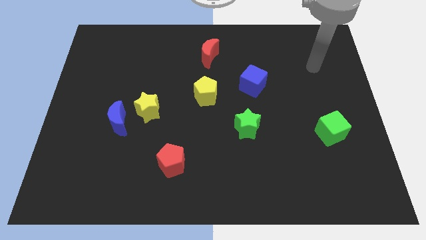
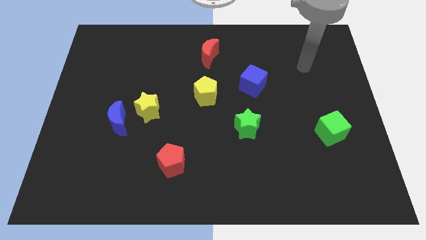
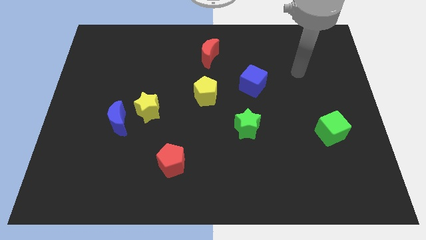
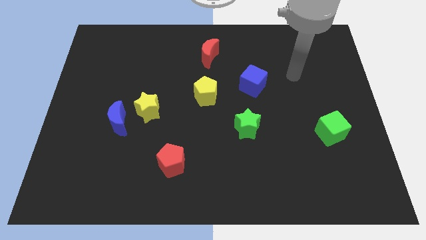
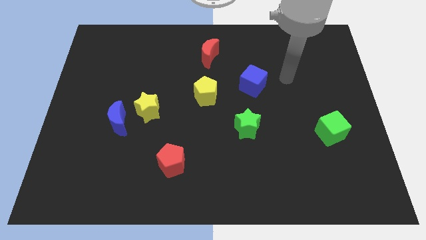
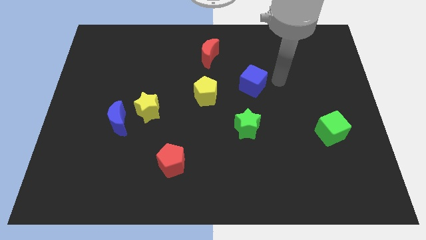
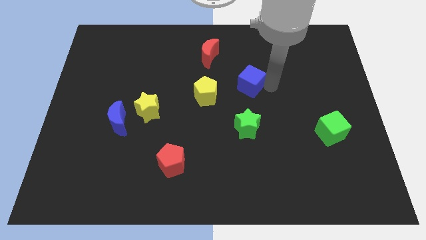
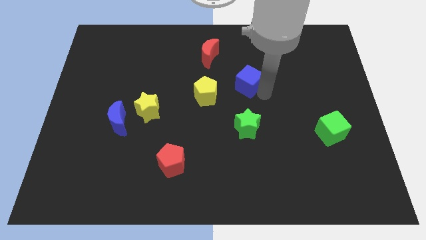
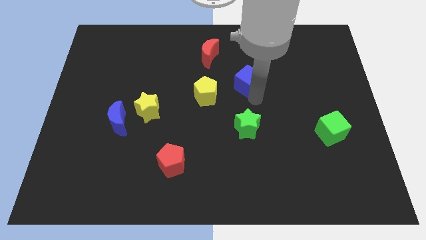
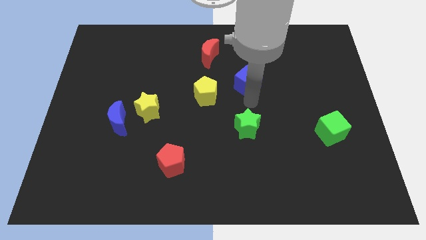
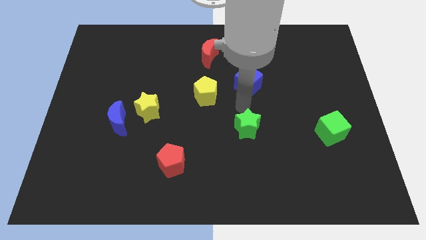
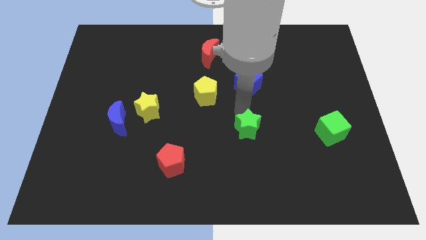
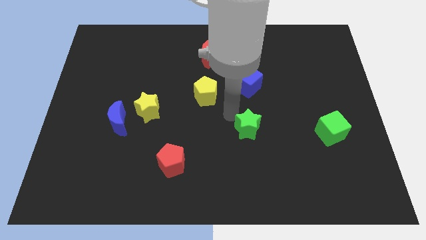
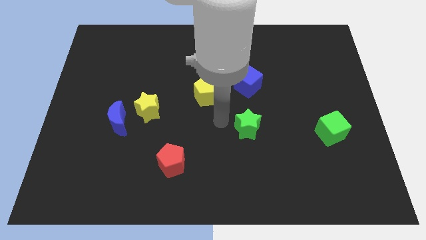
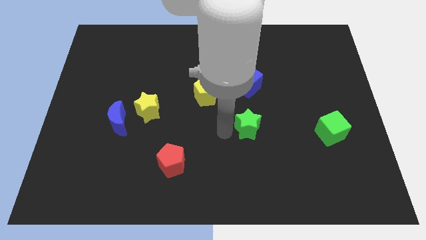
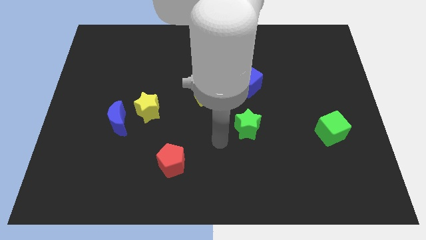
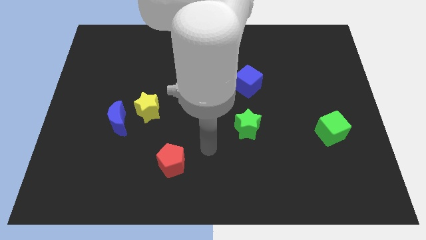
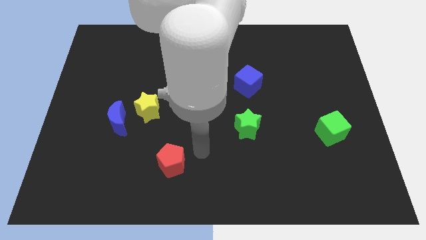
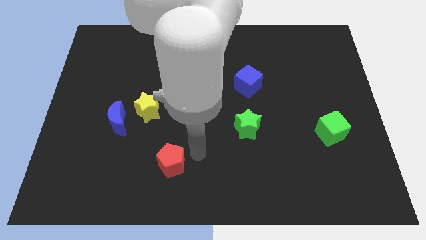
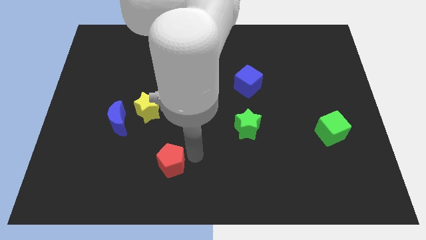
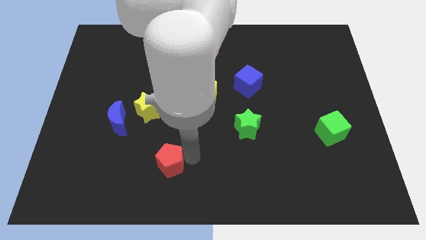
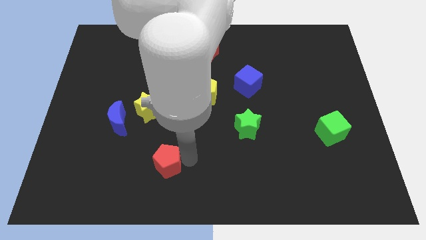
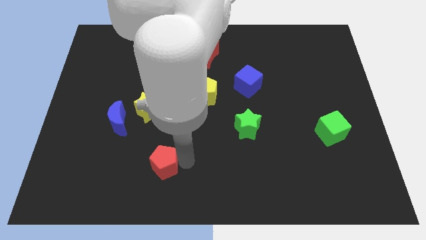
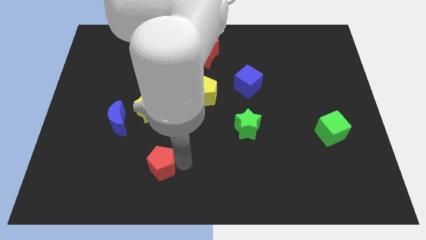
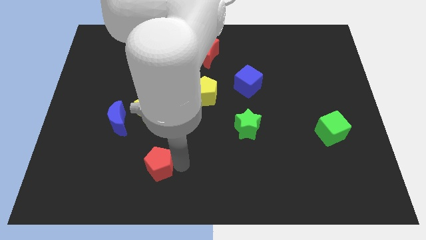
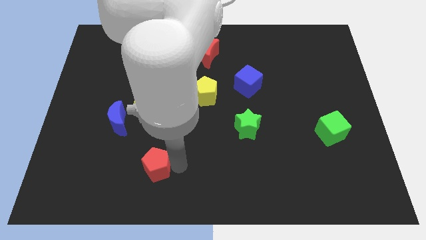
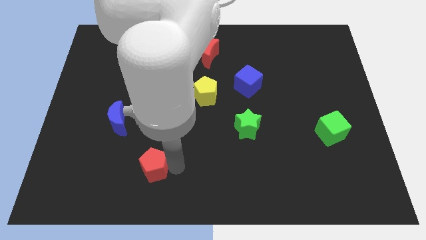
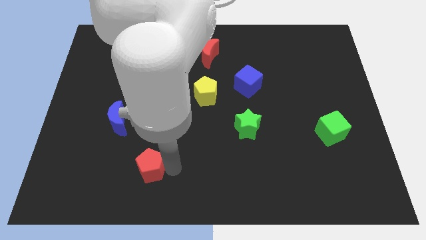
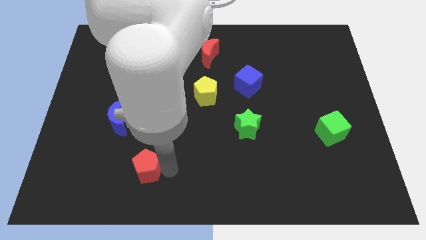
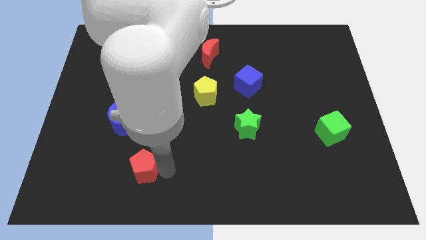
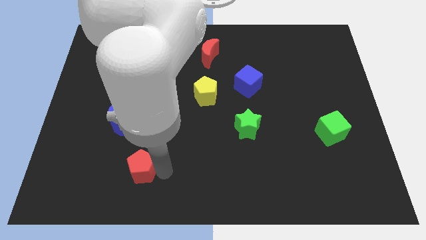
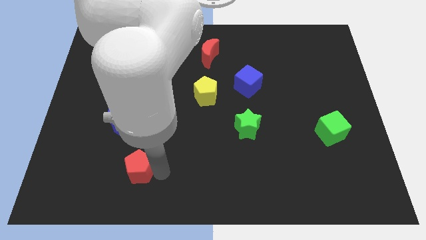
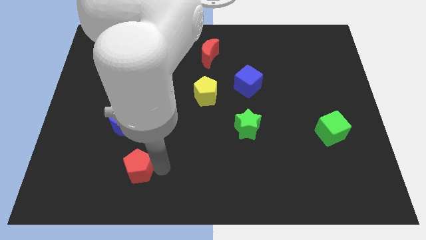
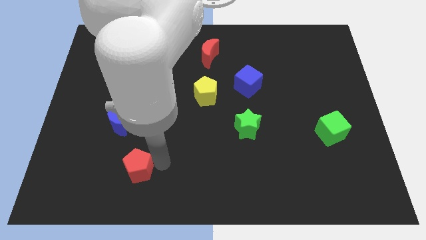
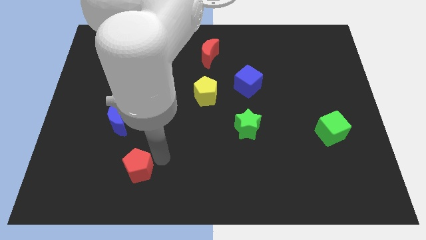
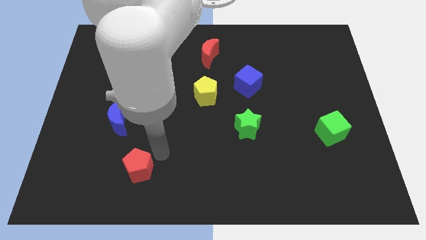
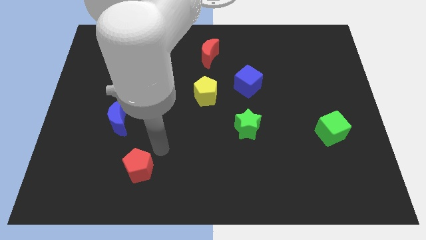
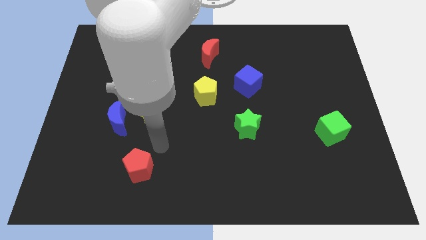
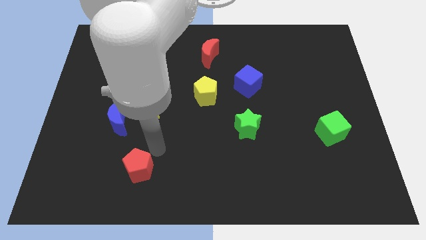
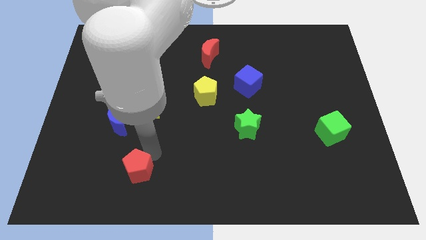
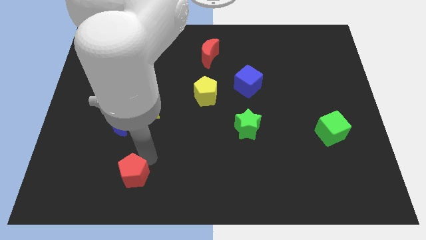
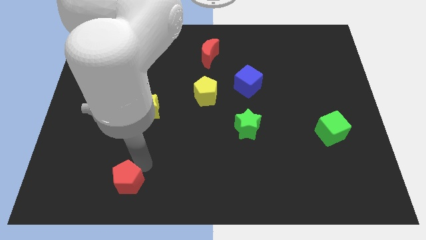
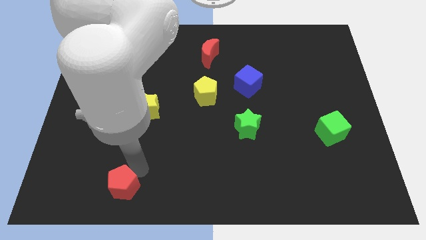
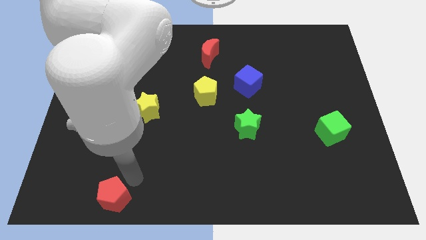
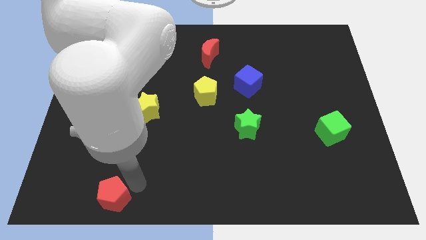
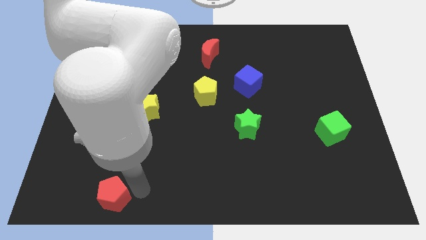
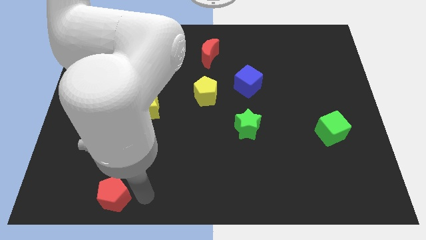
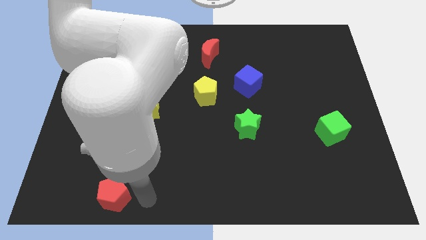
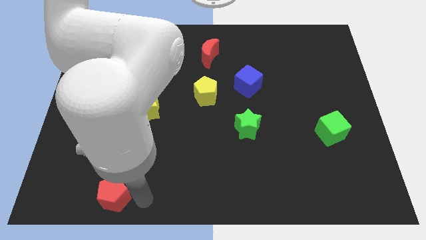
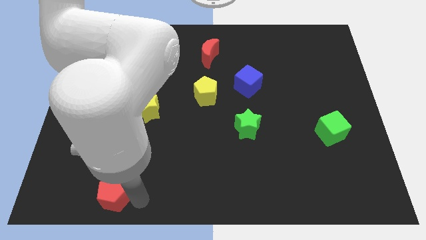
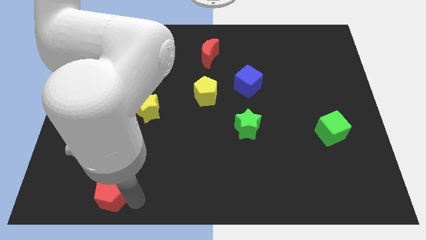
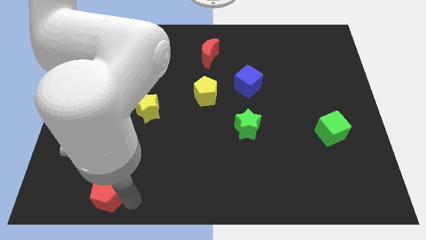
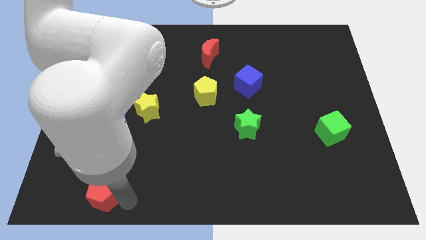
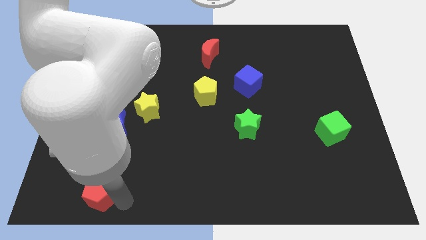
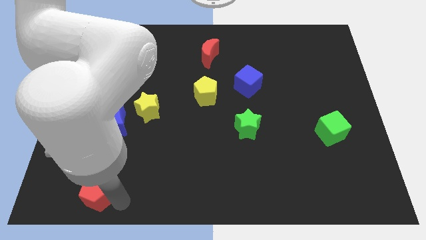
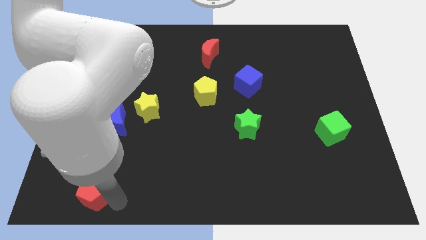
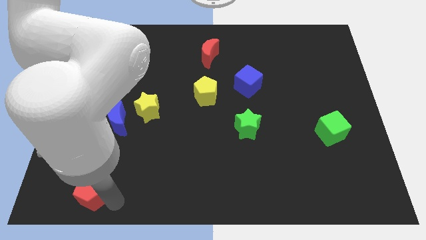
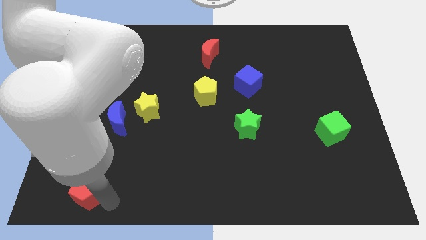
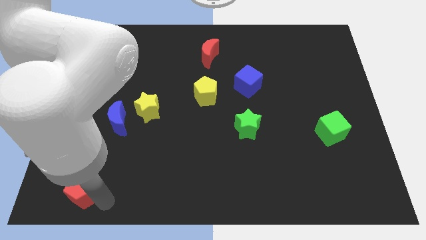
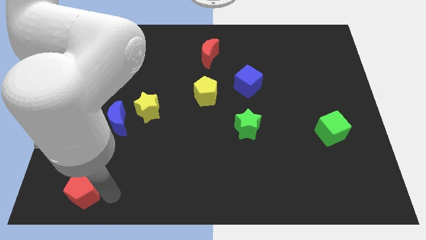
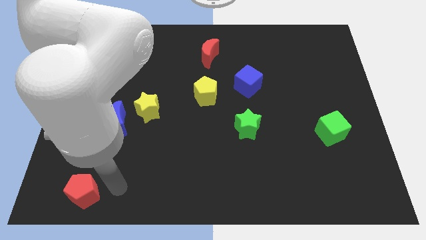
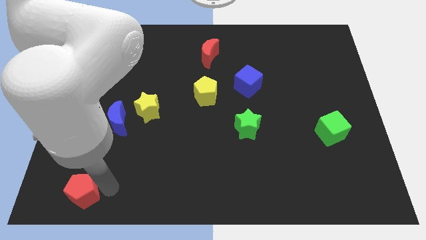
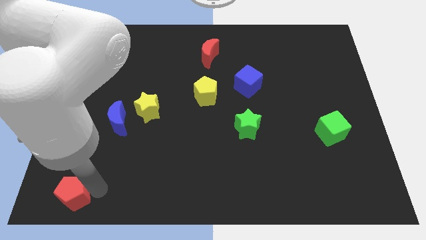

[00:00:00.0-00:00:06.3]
put the red pentagon to the bottom left corner

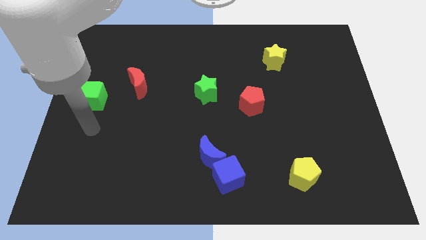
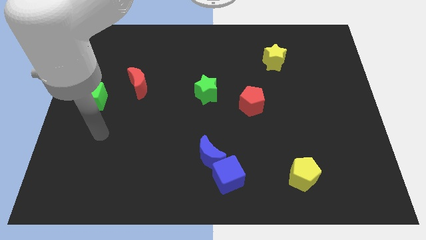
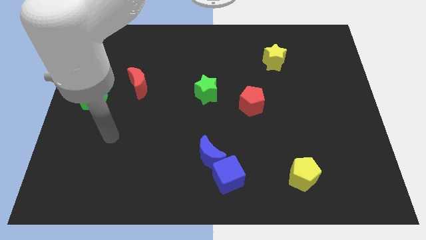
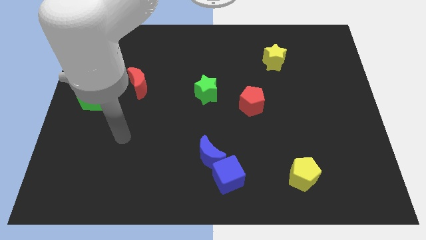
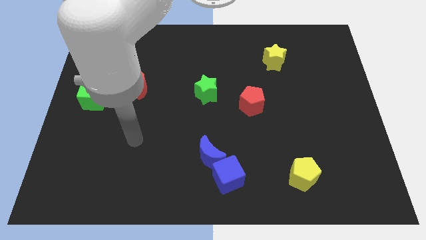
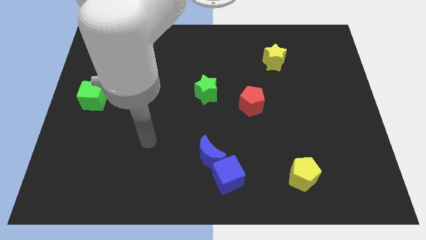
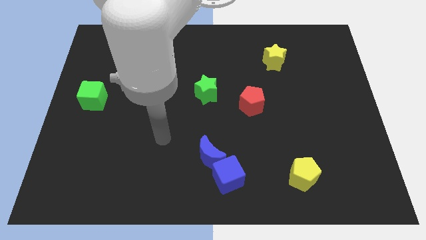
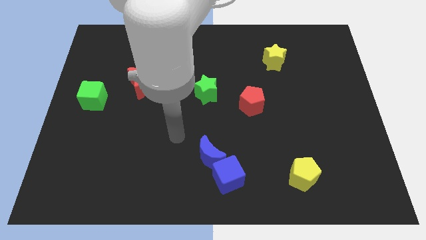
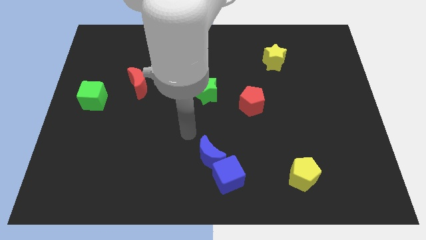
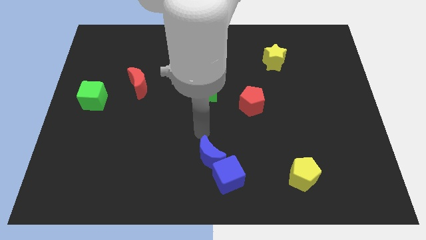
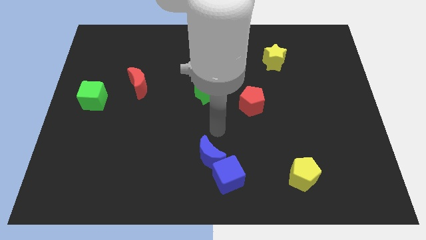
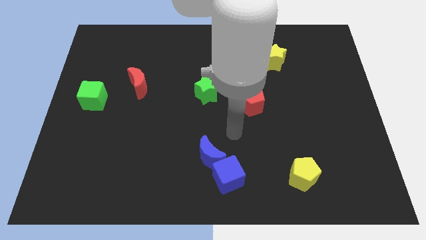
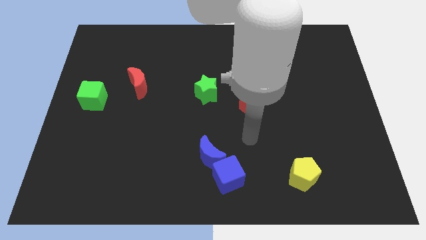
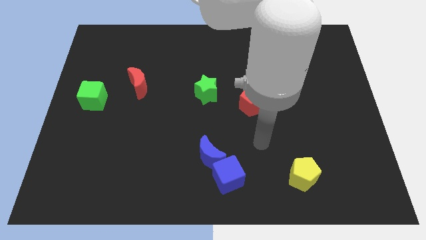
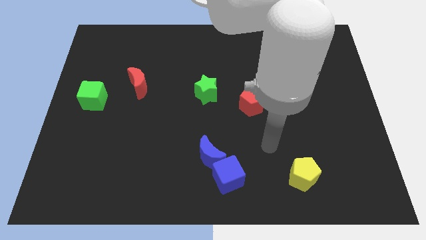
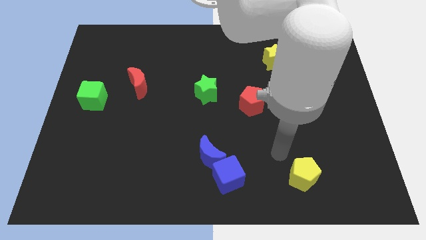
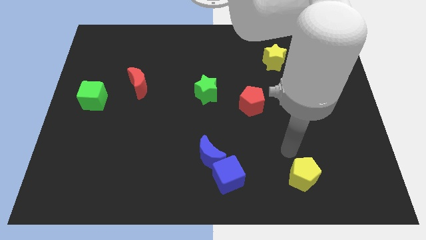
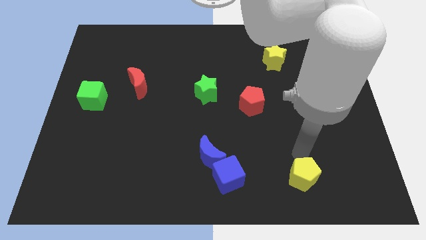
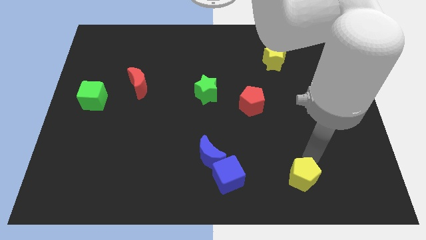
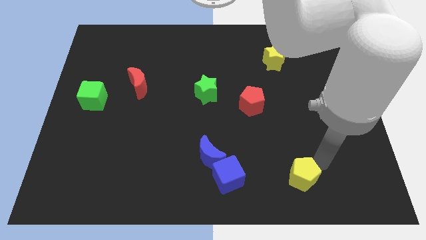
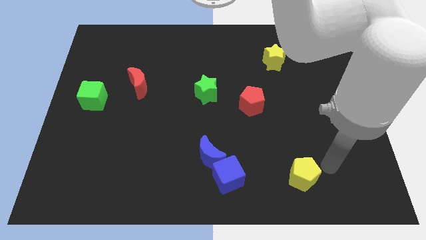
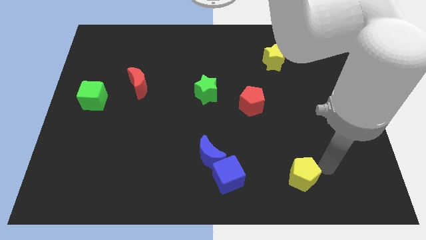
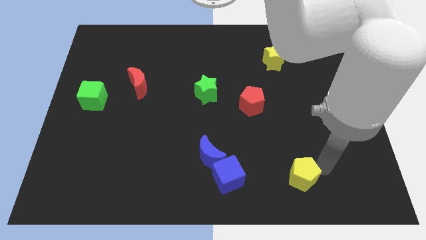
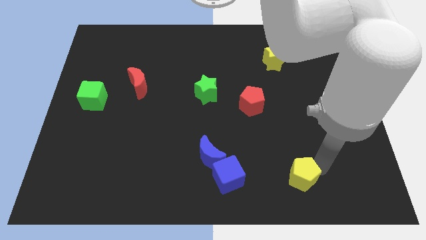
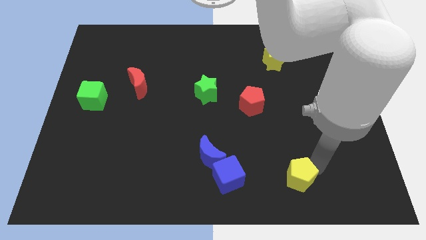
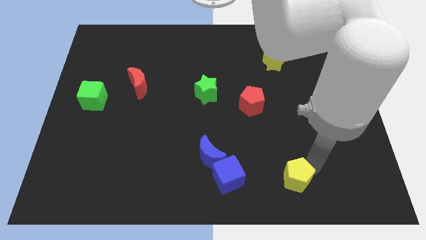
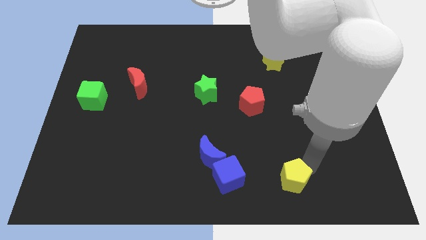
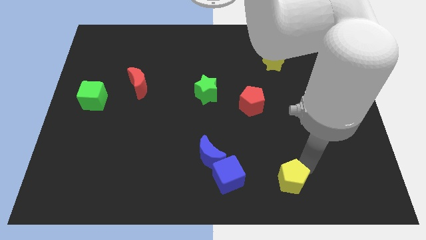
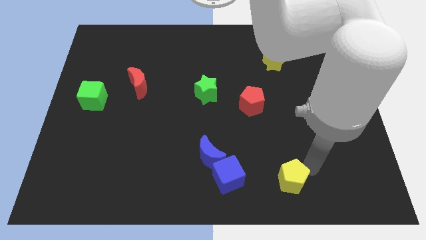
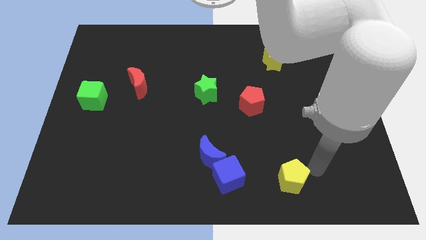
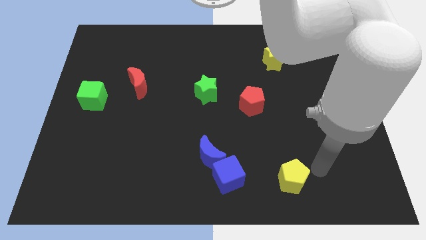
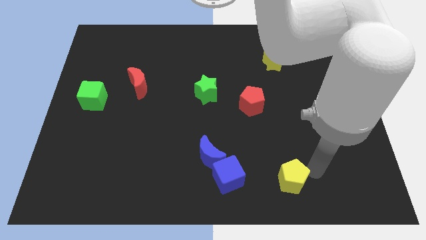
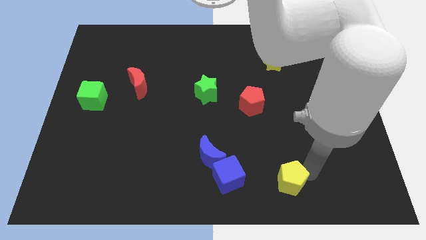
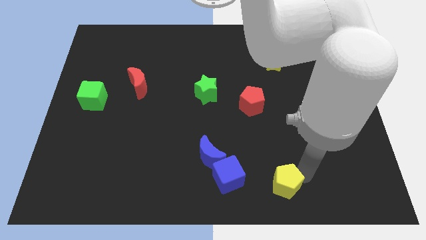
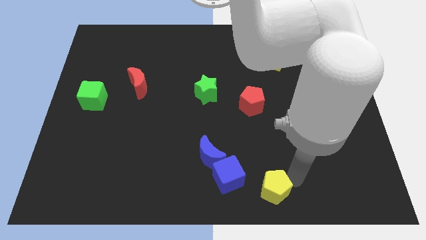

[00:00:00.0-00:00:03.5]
push the yellow pentagon to the bottom side
